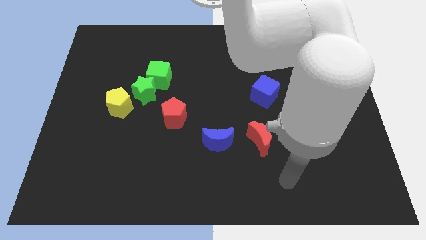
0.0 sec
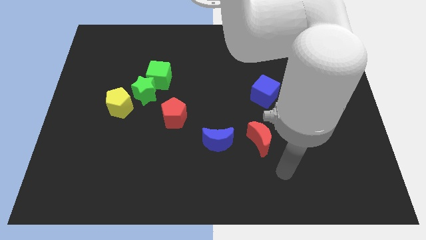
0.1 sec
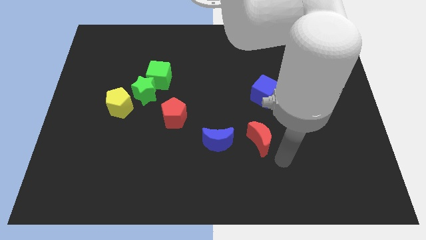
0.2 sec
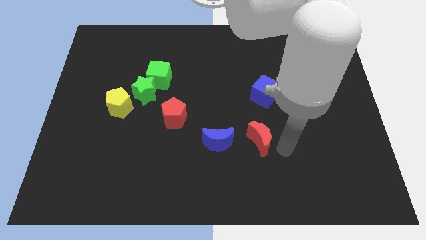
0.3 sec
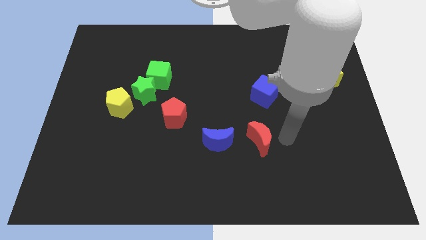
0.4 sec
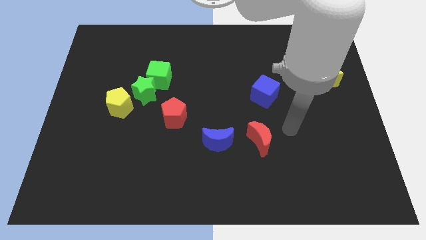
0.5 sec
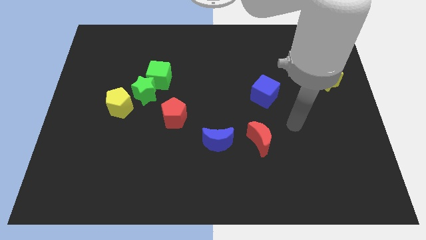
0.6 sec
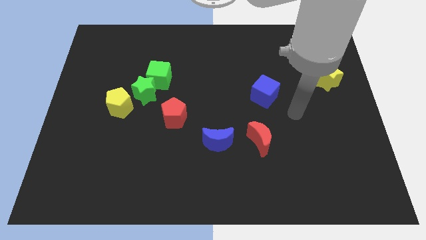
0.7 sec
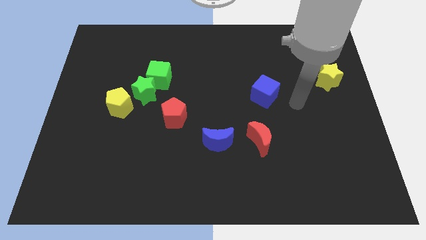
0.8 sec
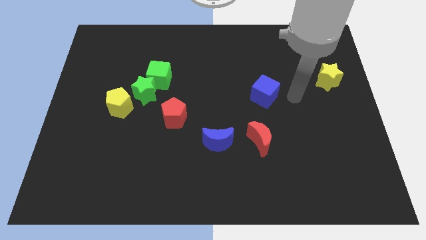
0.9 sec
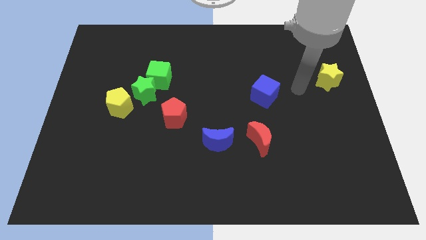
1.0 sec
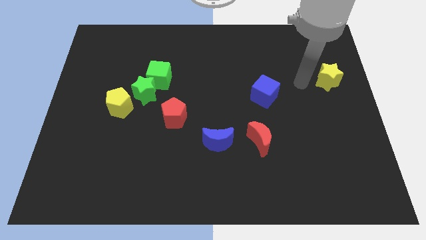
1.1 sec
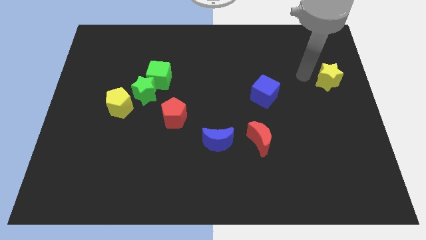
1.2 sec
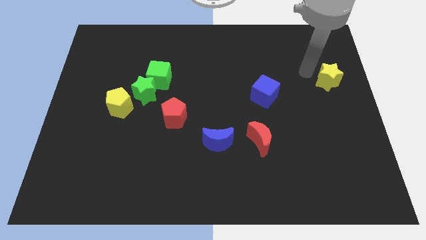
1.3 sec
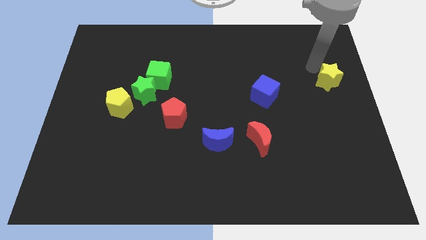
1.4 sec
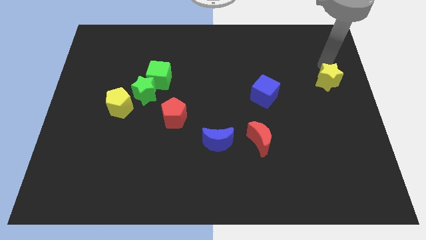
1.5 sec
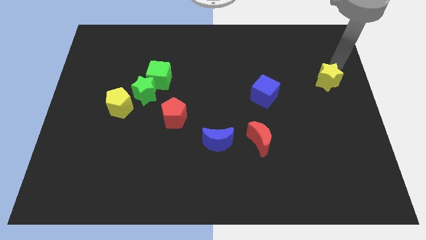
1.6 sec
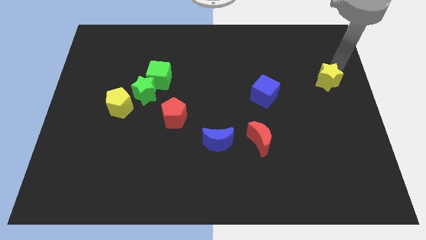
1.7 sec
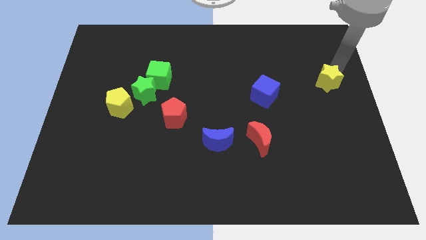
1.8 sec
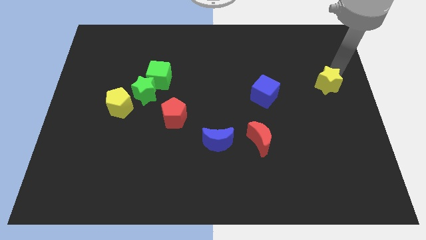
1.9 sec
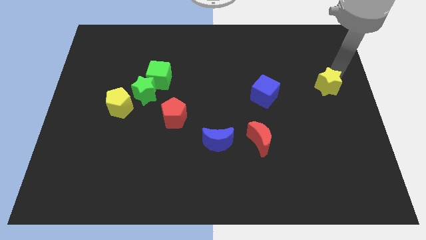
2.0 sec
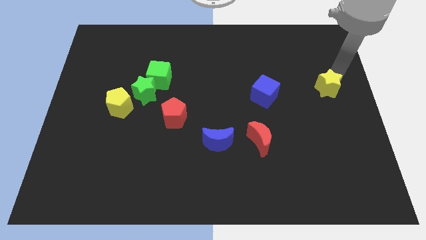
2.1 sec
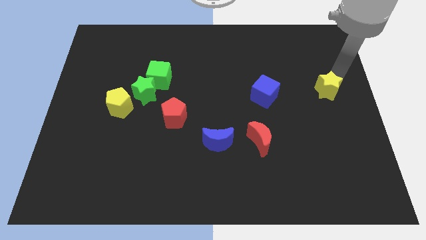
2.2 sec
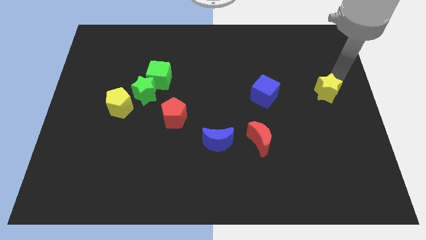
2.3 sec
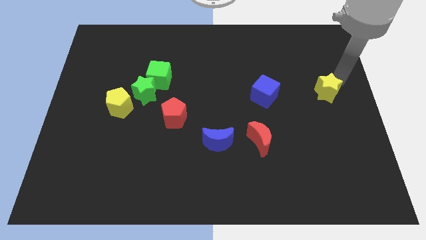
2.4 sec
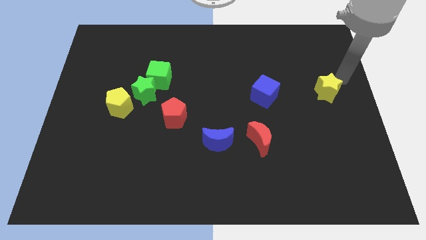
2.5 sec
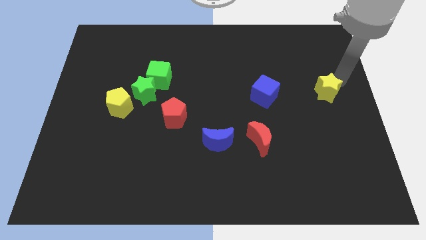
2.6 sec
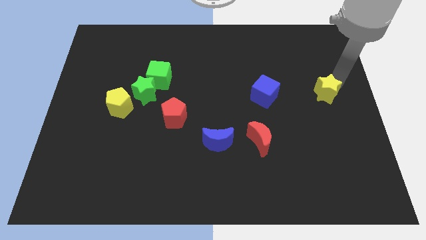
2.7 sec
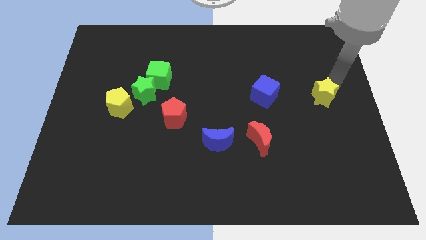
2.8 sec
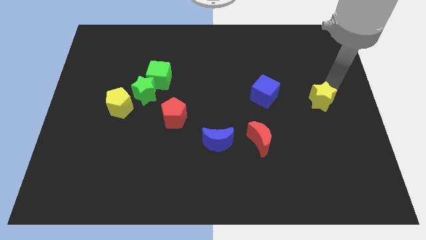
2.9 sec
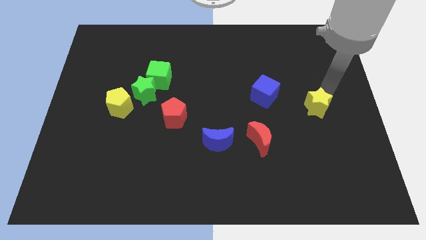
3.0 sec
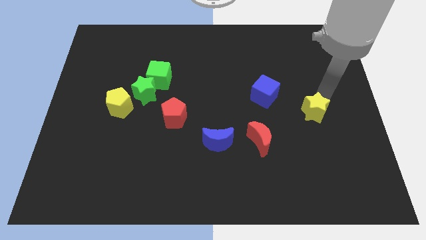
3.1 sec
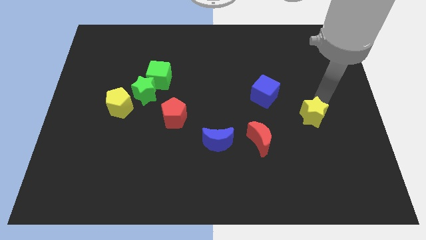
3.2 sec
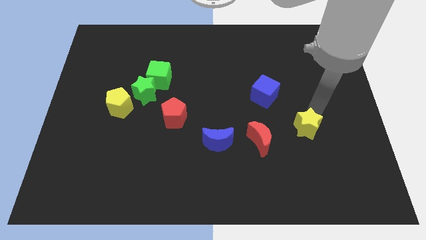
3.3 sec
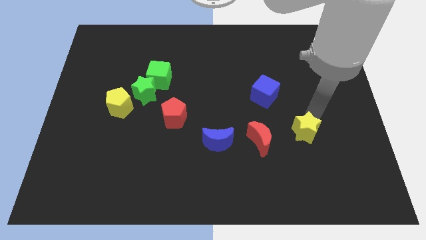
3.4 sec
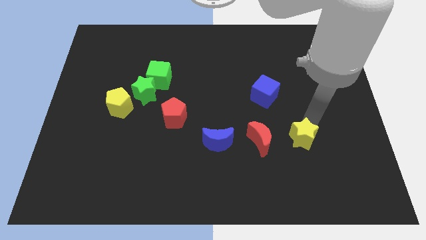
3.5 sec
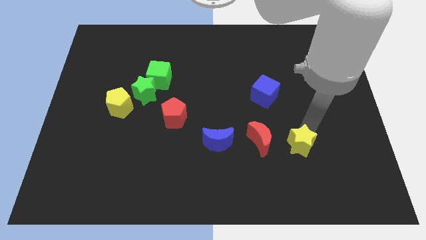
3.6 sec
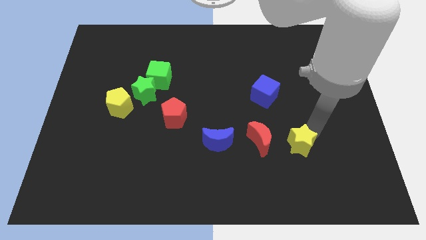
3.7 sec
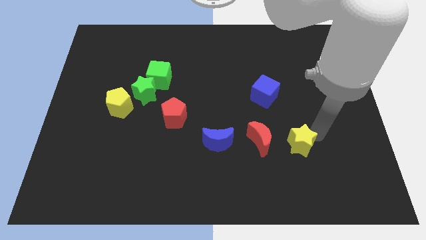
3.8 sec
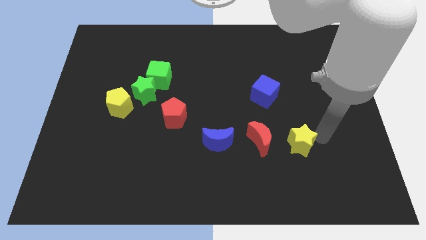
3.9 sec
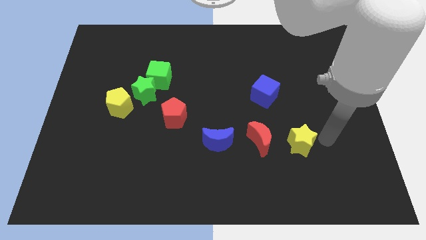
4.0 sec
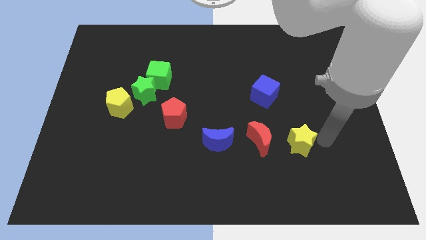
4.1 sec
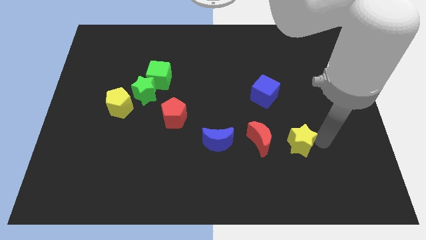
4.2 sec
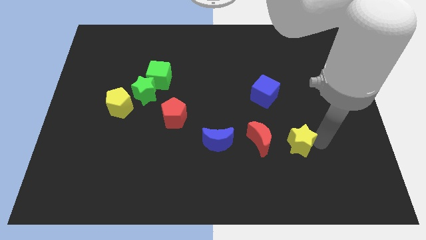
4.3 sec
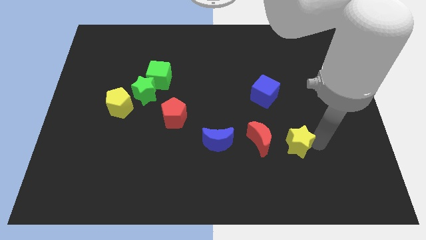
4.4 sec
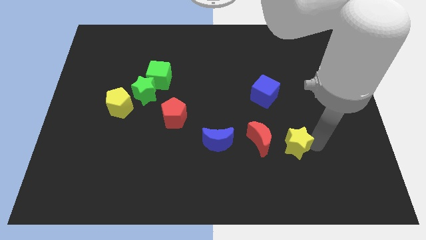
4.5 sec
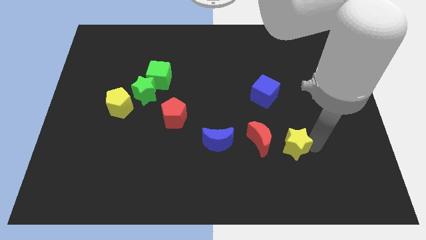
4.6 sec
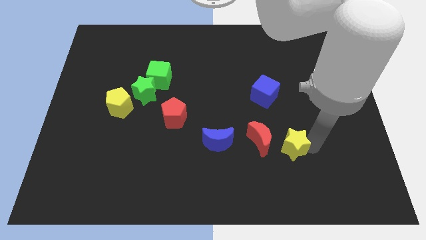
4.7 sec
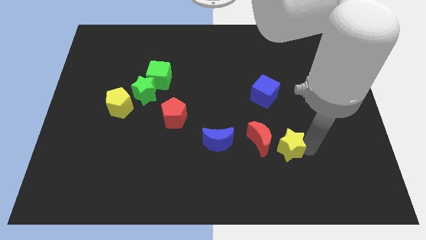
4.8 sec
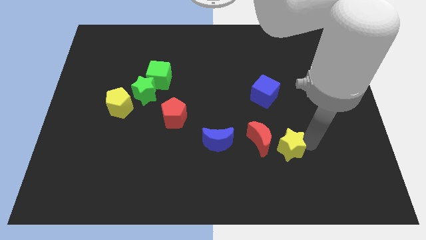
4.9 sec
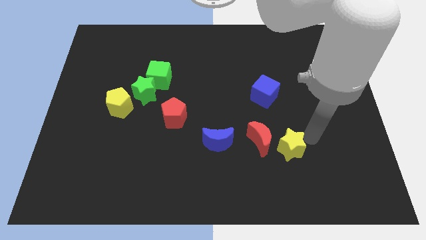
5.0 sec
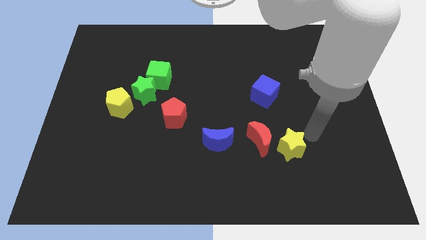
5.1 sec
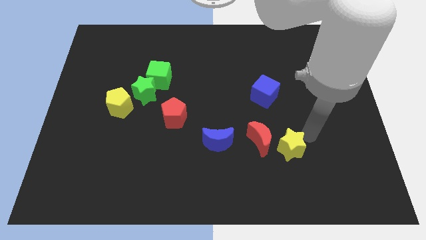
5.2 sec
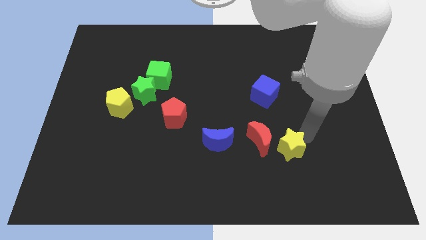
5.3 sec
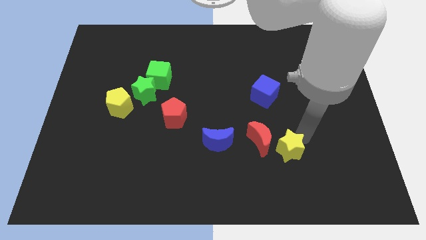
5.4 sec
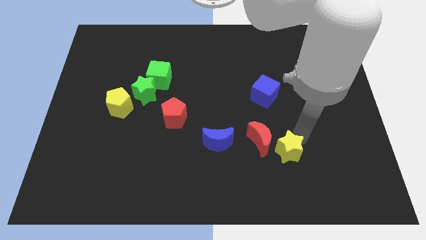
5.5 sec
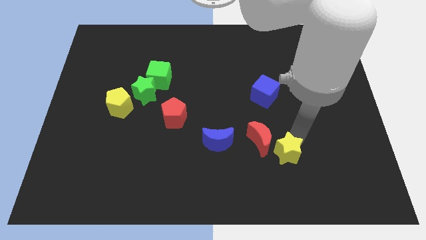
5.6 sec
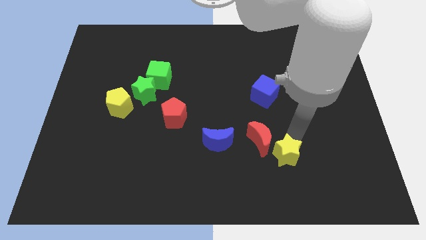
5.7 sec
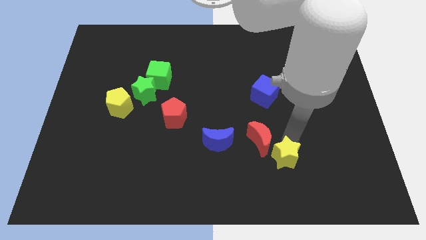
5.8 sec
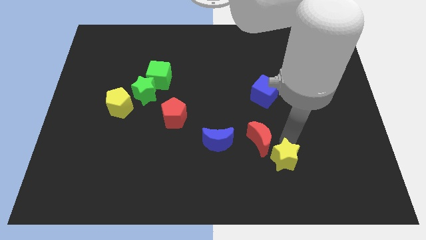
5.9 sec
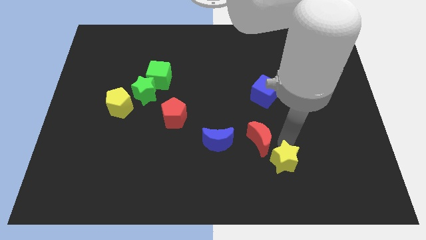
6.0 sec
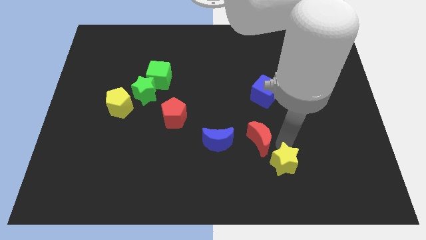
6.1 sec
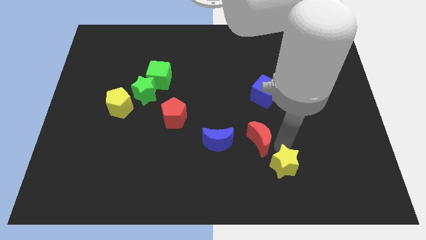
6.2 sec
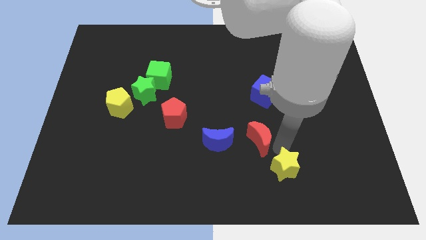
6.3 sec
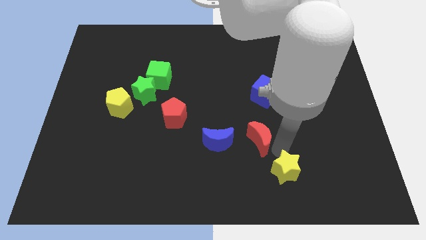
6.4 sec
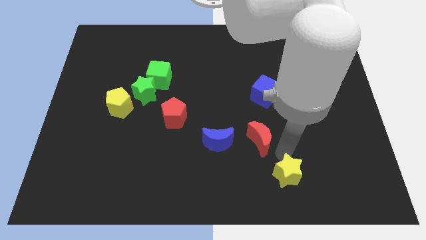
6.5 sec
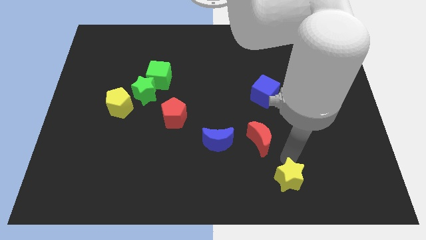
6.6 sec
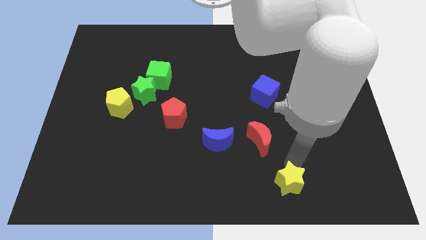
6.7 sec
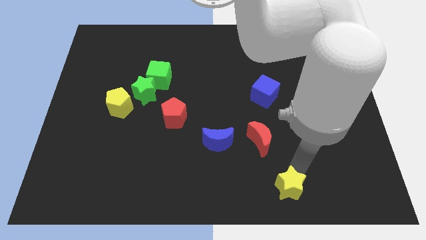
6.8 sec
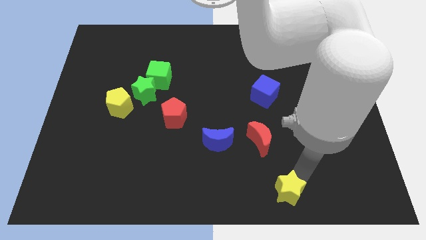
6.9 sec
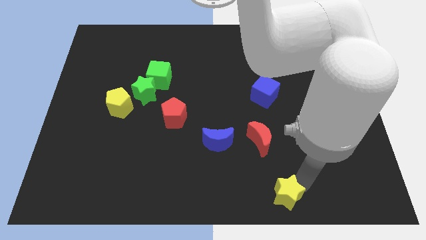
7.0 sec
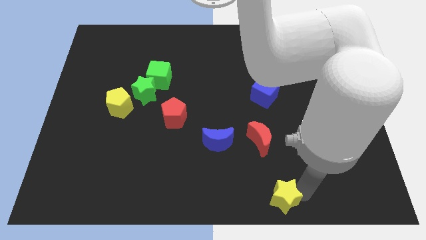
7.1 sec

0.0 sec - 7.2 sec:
put the yellow star to the bottom

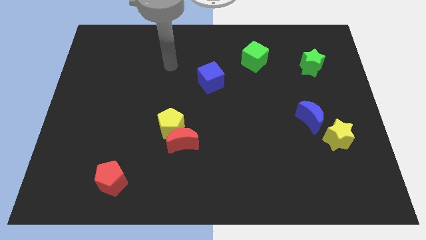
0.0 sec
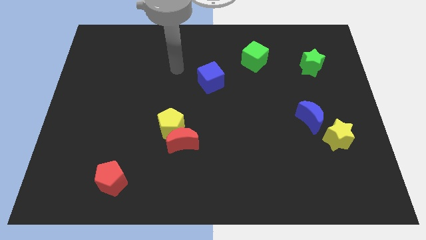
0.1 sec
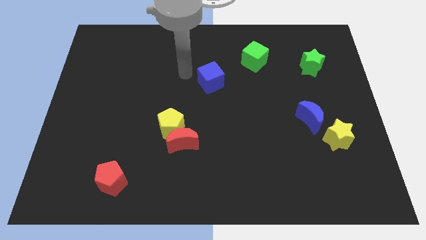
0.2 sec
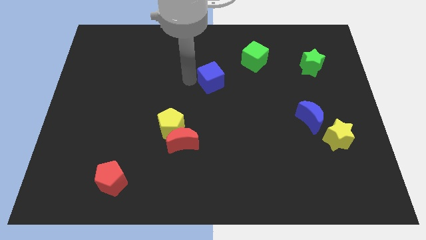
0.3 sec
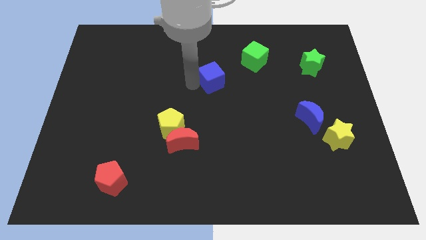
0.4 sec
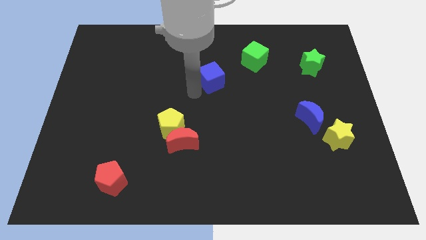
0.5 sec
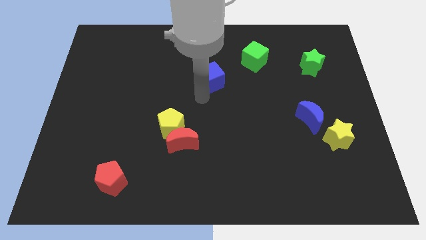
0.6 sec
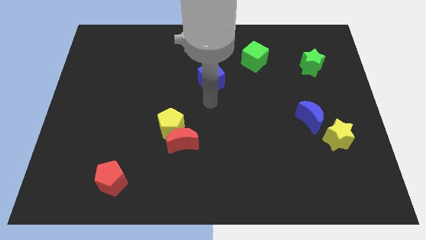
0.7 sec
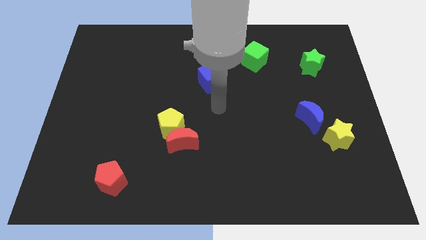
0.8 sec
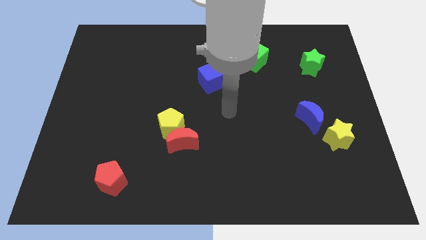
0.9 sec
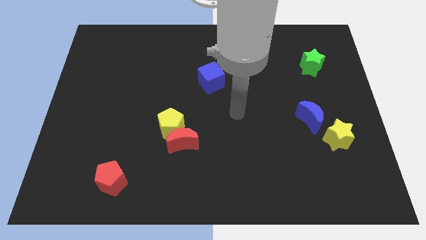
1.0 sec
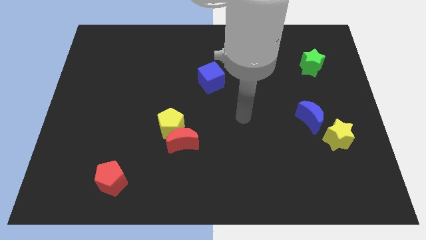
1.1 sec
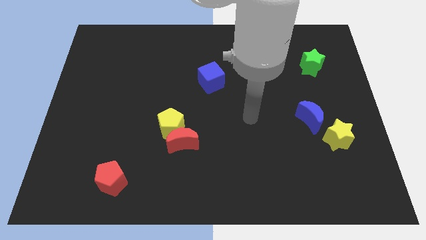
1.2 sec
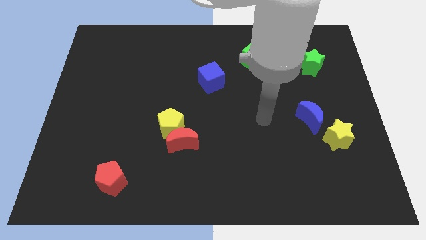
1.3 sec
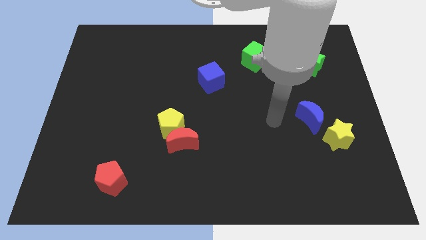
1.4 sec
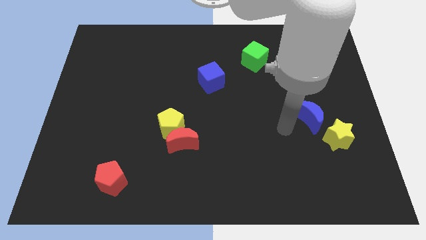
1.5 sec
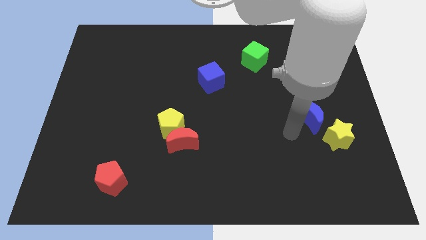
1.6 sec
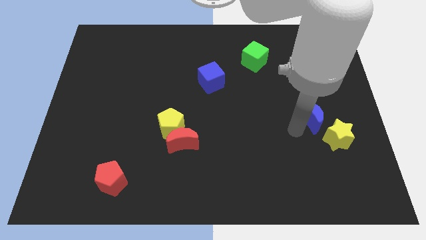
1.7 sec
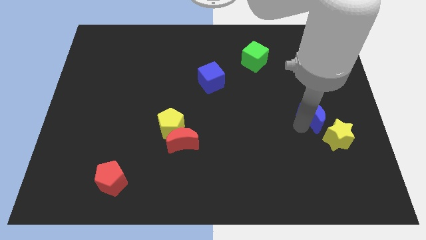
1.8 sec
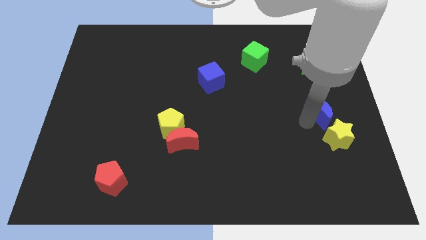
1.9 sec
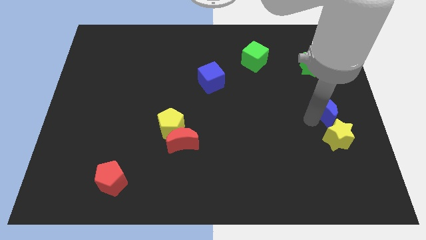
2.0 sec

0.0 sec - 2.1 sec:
put the blue moon to the center right
